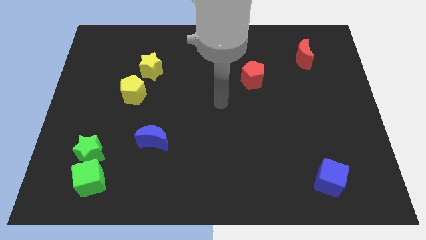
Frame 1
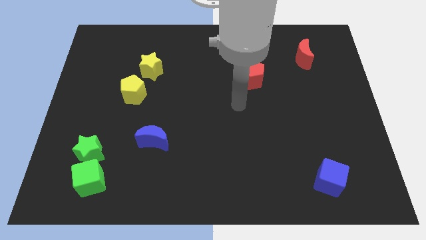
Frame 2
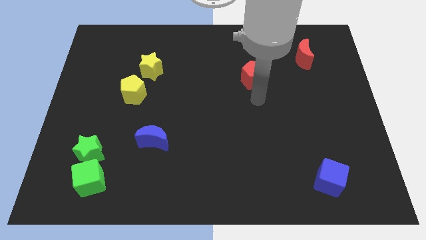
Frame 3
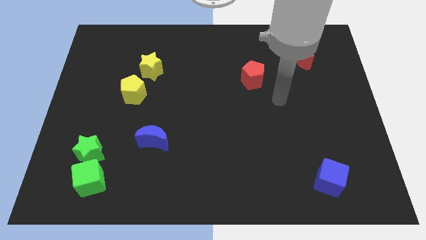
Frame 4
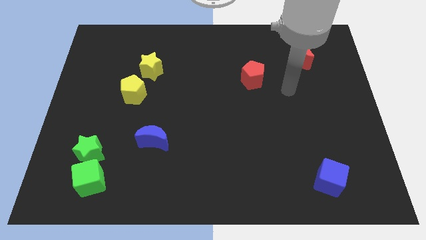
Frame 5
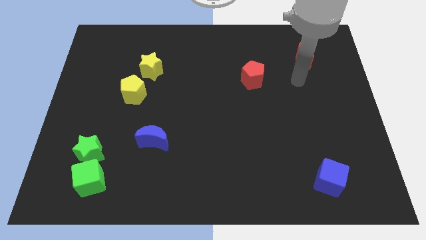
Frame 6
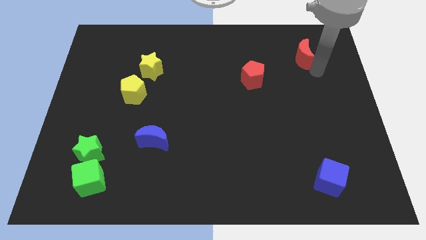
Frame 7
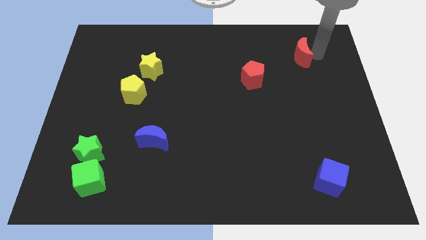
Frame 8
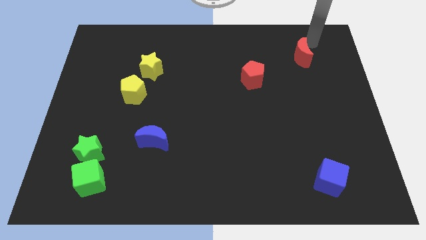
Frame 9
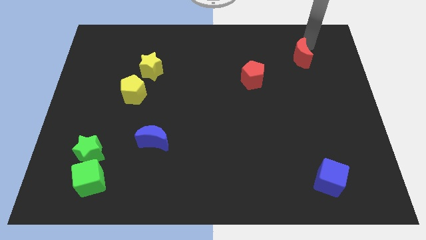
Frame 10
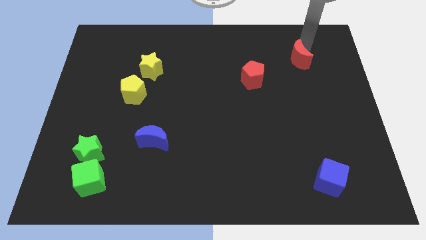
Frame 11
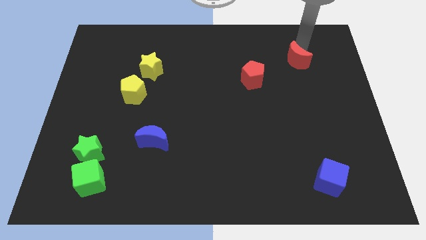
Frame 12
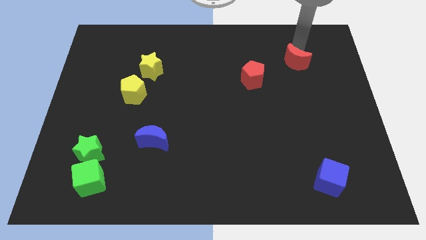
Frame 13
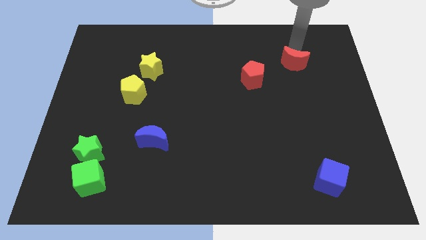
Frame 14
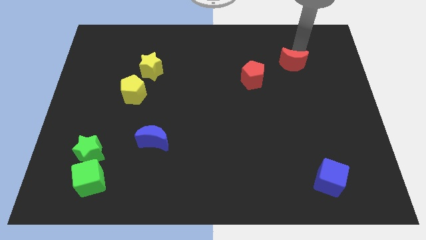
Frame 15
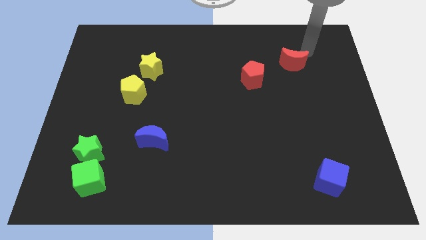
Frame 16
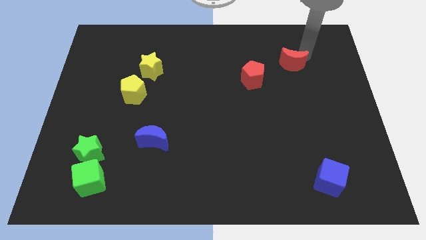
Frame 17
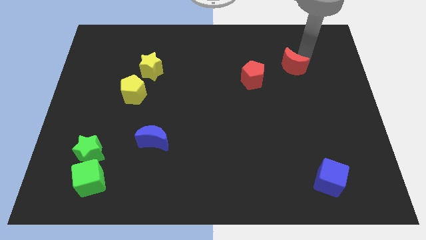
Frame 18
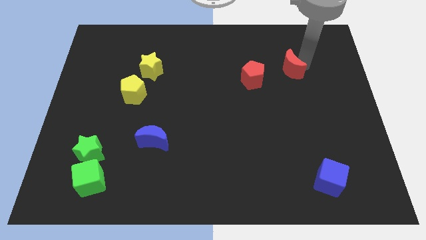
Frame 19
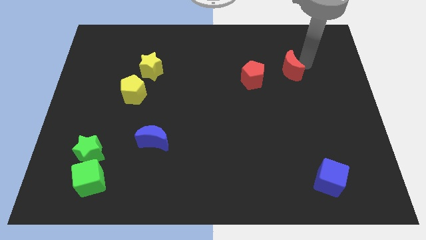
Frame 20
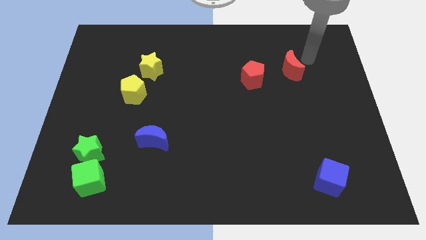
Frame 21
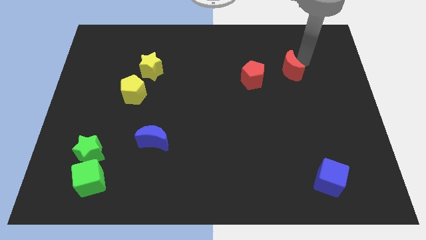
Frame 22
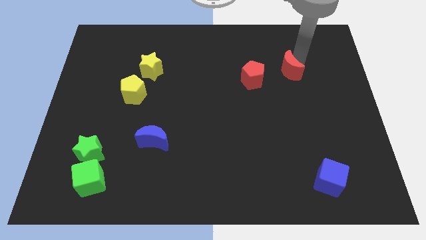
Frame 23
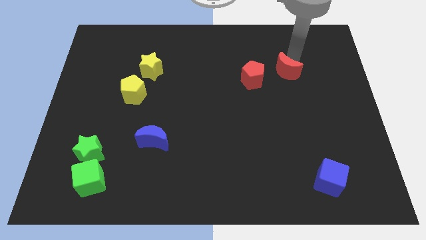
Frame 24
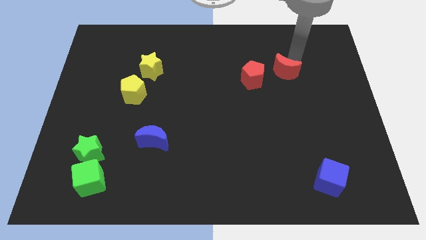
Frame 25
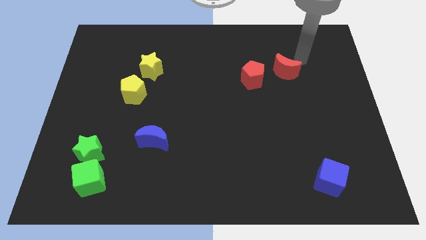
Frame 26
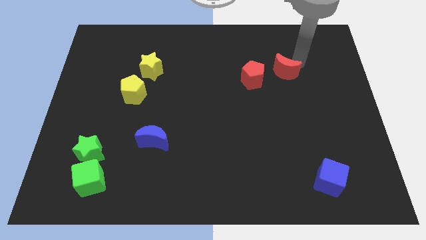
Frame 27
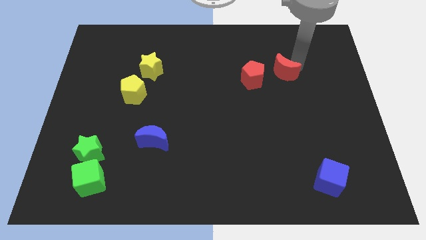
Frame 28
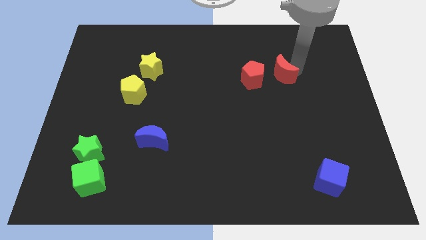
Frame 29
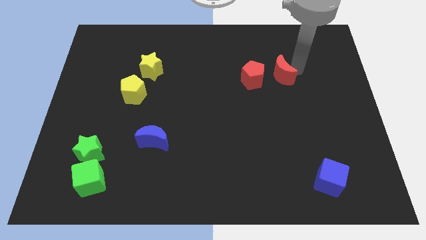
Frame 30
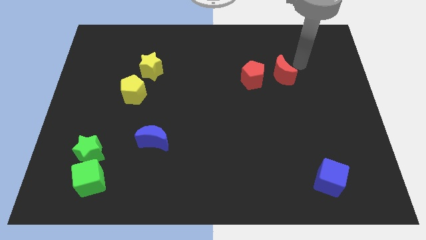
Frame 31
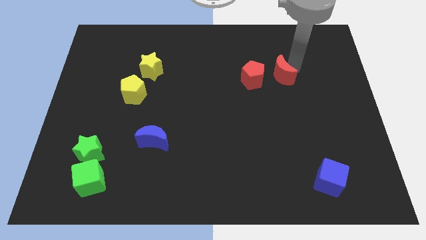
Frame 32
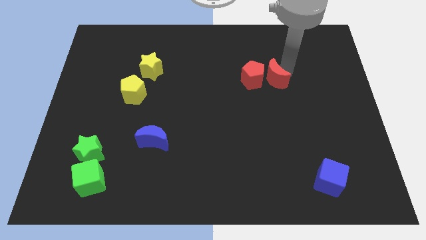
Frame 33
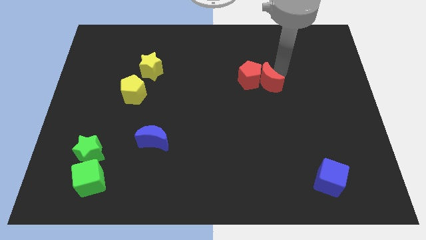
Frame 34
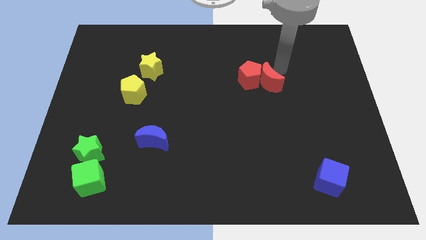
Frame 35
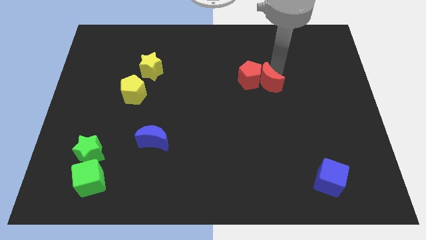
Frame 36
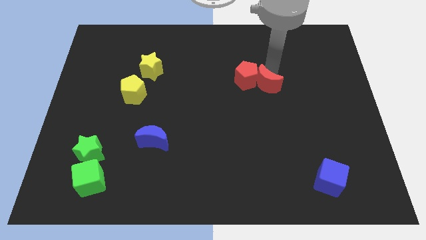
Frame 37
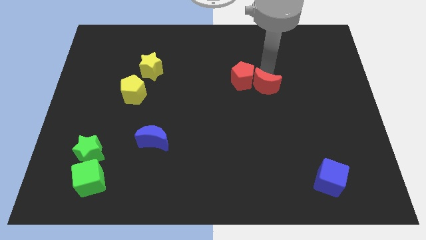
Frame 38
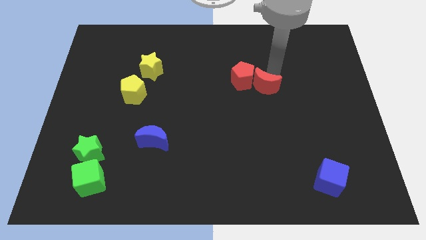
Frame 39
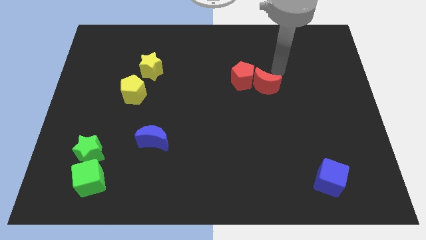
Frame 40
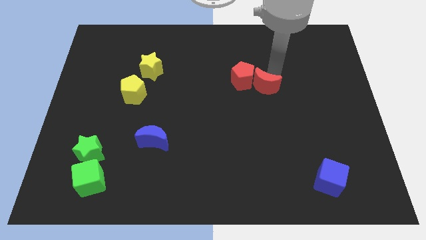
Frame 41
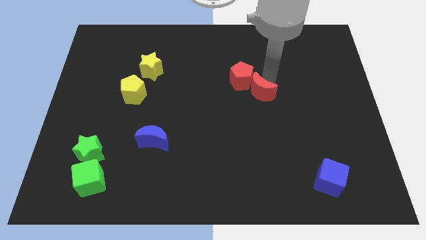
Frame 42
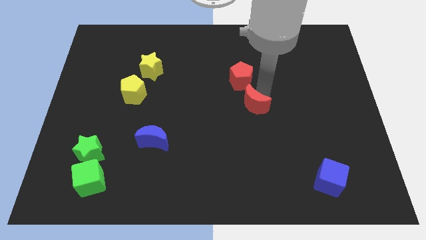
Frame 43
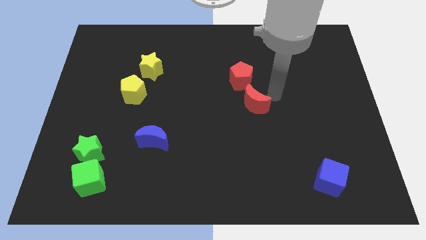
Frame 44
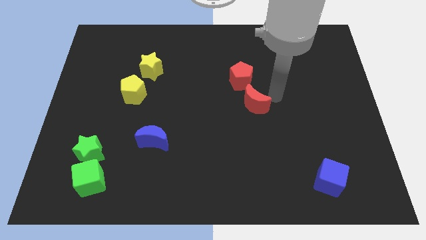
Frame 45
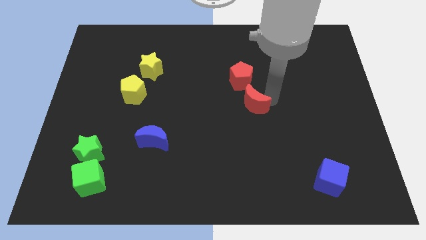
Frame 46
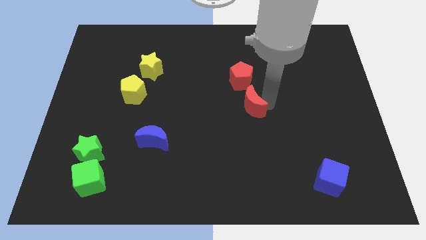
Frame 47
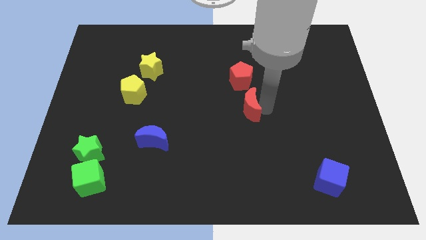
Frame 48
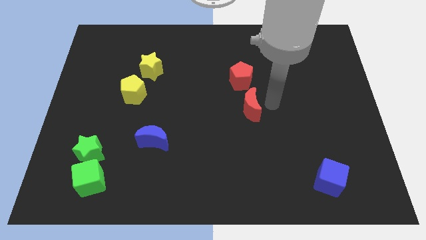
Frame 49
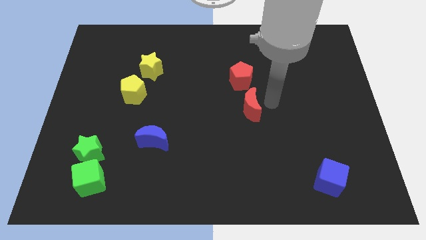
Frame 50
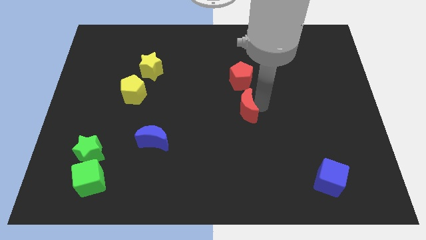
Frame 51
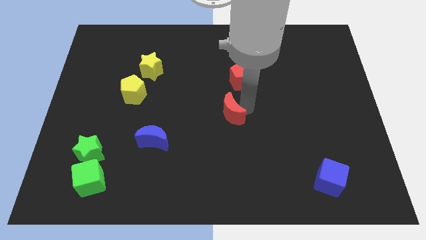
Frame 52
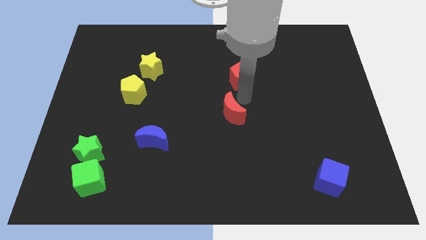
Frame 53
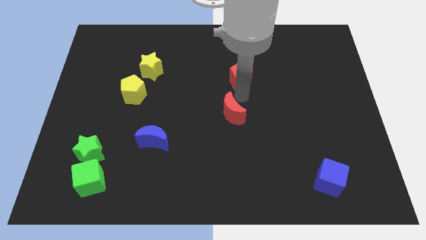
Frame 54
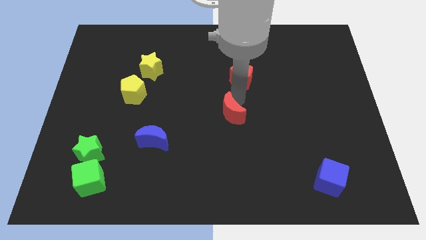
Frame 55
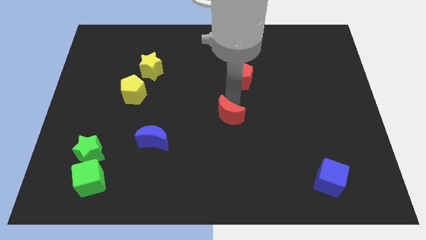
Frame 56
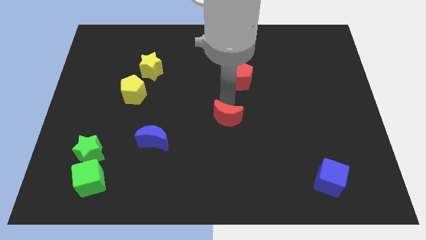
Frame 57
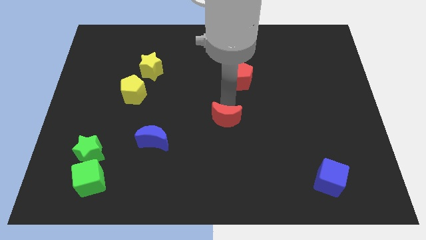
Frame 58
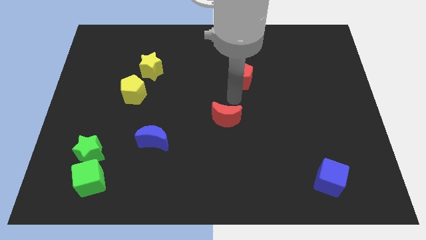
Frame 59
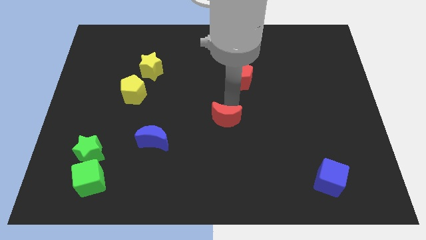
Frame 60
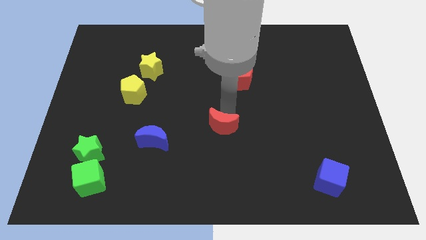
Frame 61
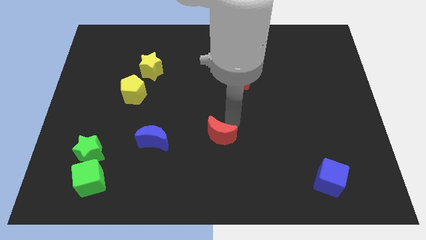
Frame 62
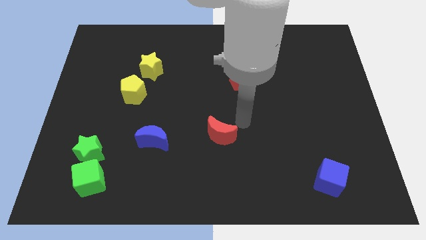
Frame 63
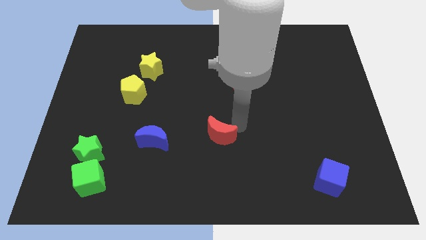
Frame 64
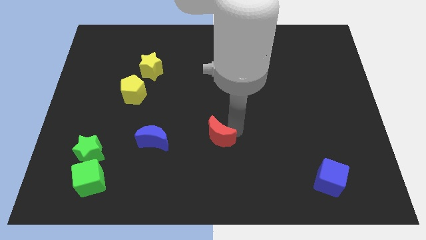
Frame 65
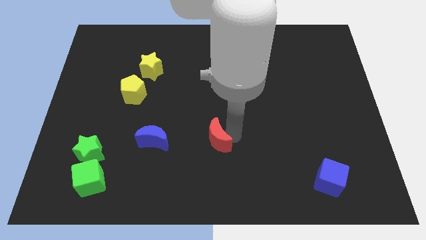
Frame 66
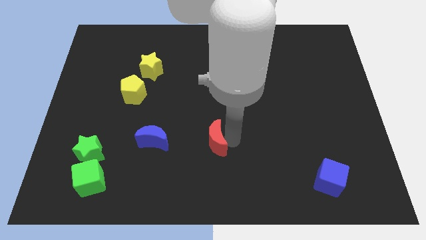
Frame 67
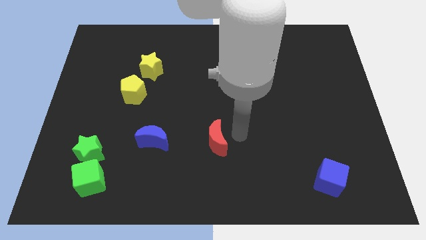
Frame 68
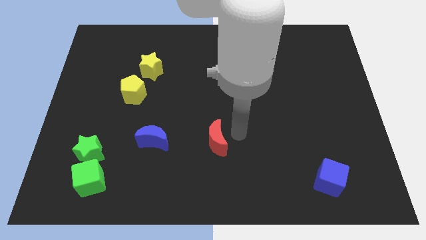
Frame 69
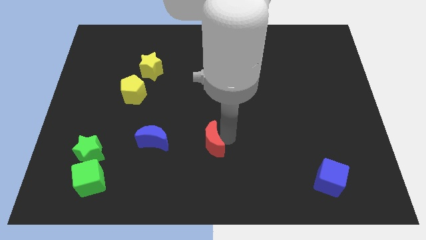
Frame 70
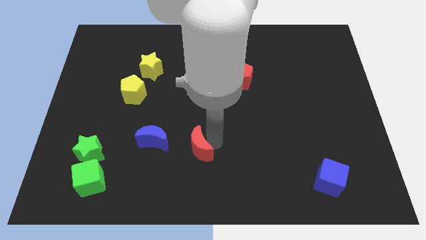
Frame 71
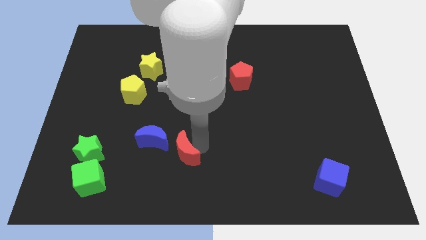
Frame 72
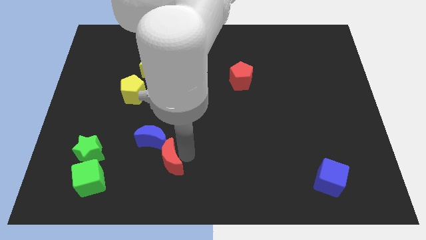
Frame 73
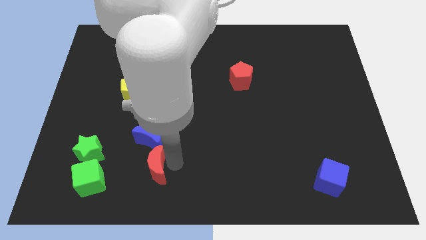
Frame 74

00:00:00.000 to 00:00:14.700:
push the red moon to the right side of the green star

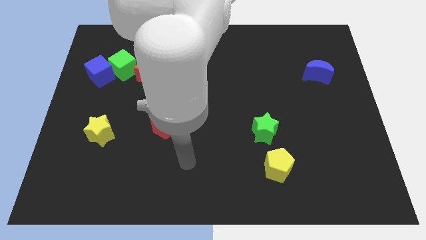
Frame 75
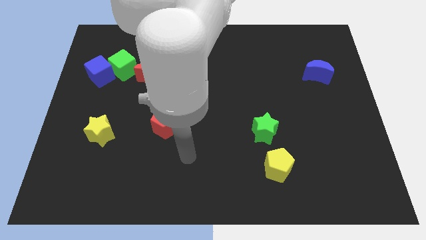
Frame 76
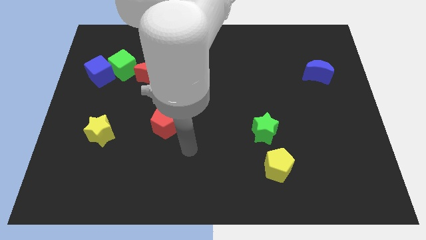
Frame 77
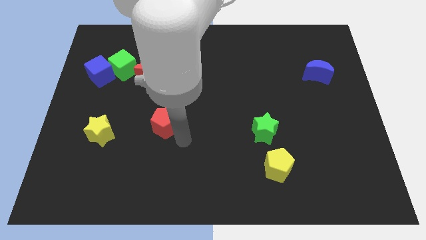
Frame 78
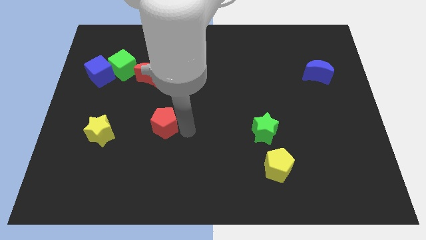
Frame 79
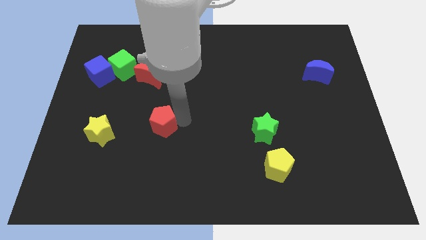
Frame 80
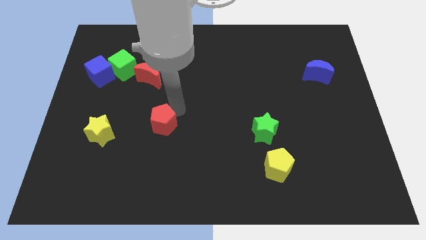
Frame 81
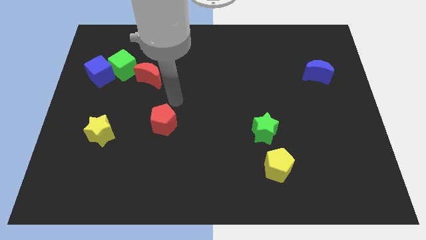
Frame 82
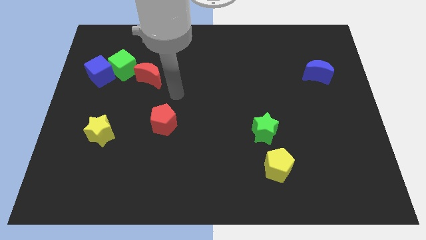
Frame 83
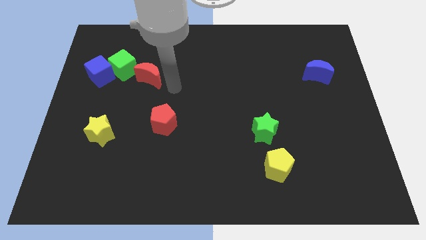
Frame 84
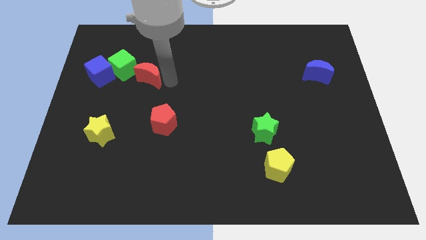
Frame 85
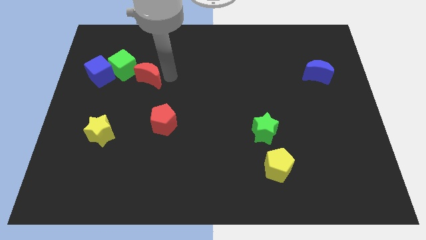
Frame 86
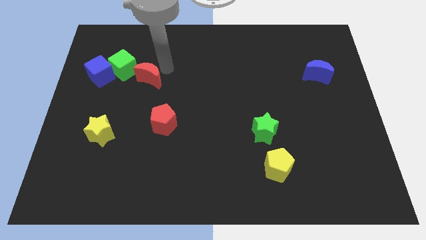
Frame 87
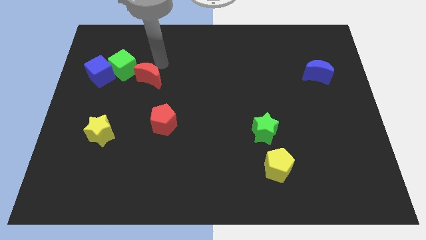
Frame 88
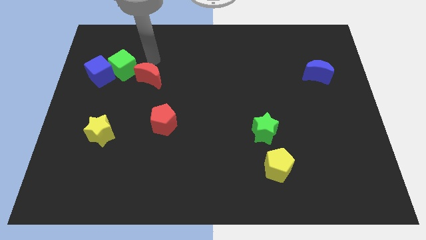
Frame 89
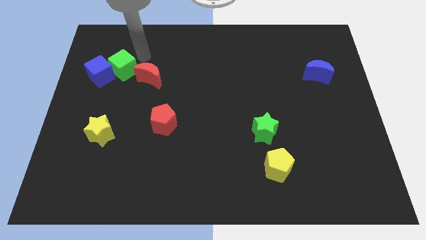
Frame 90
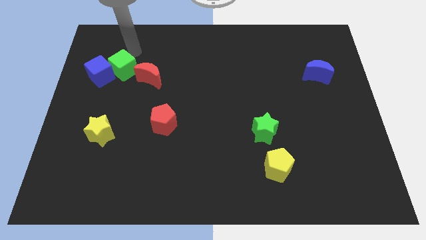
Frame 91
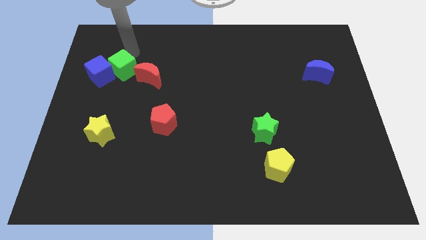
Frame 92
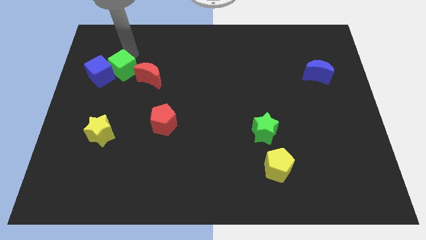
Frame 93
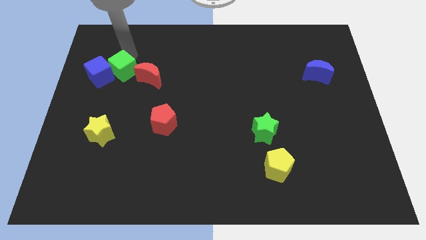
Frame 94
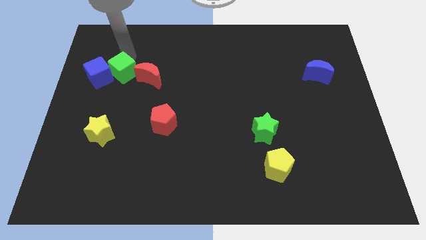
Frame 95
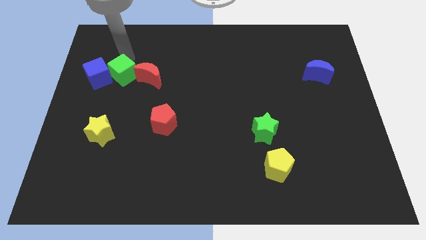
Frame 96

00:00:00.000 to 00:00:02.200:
push the green cube to the bottom right of the blue cube
